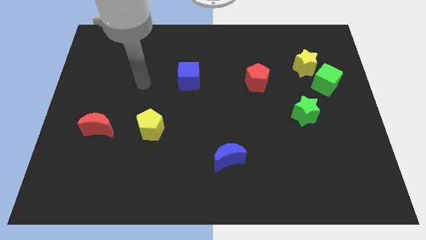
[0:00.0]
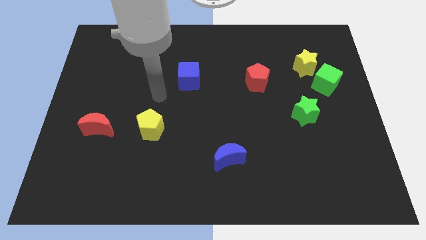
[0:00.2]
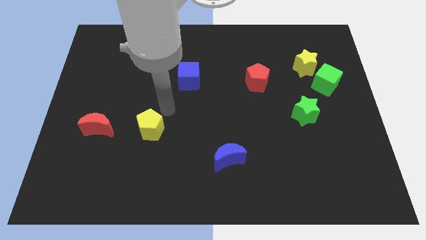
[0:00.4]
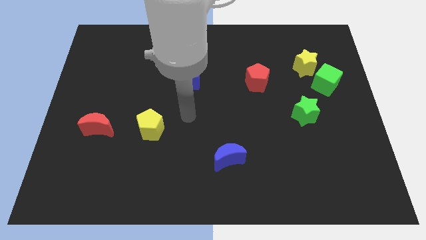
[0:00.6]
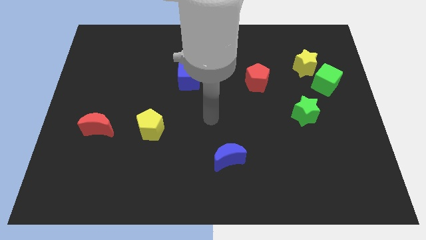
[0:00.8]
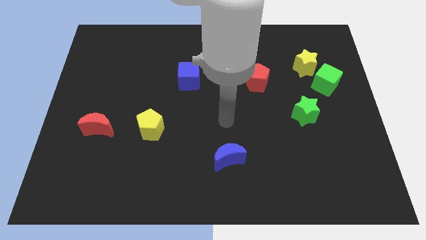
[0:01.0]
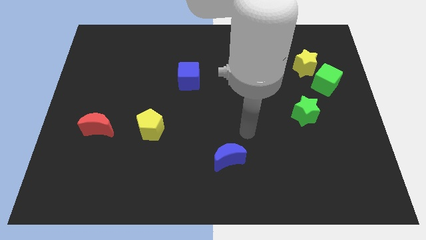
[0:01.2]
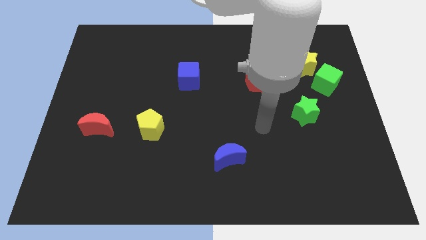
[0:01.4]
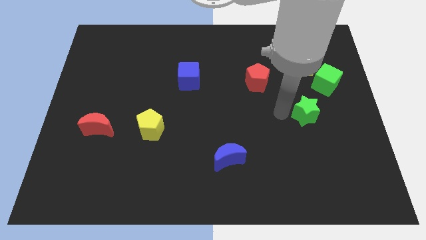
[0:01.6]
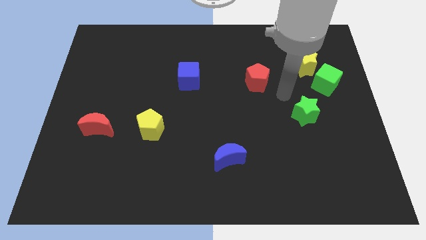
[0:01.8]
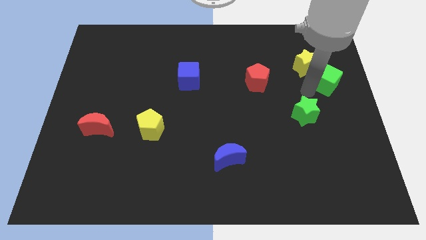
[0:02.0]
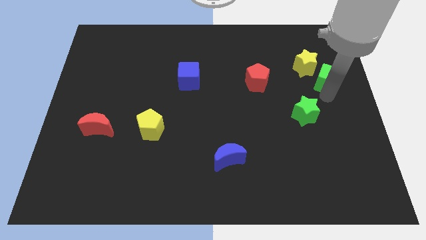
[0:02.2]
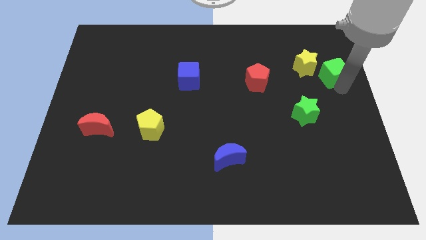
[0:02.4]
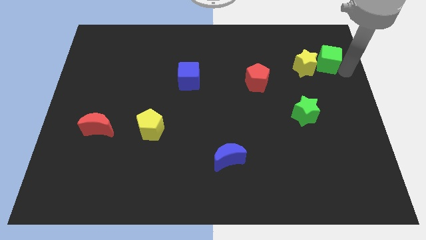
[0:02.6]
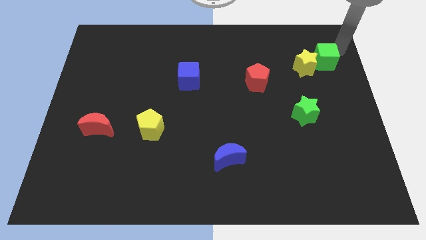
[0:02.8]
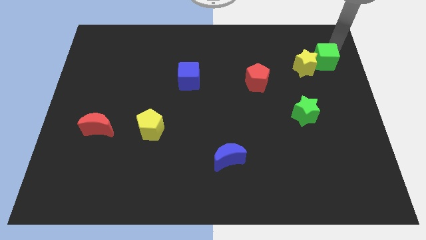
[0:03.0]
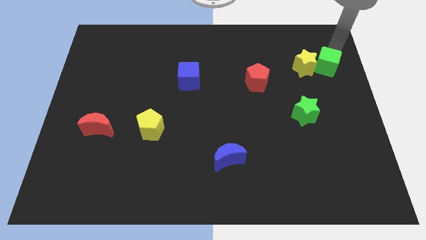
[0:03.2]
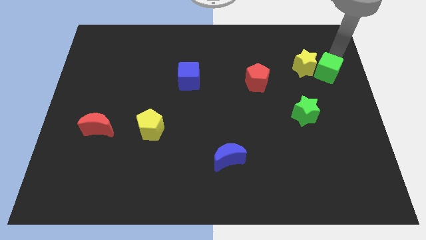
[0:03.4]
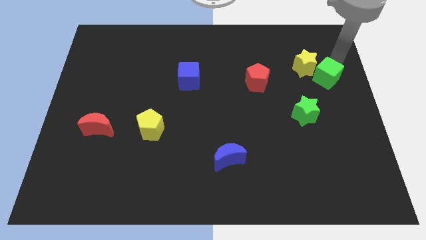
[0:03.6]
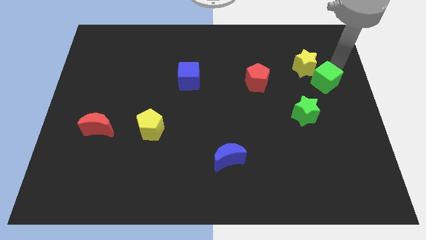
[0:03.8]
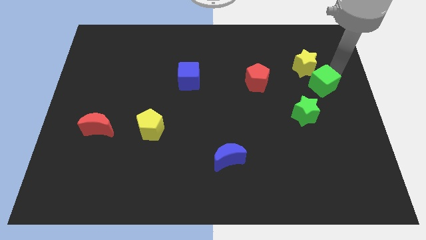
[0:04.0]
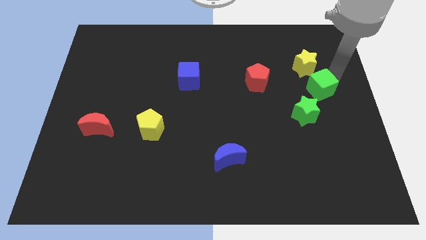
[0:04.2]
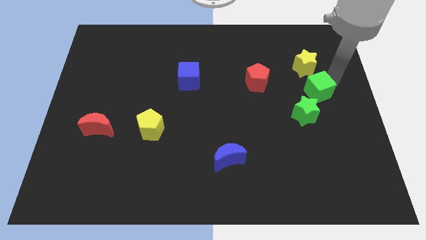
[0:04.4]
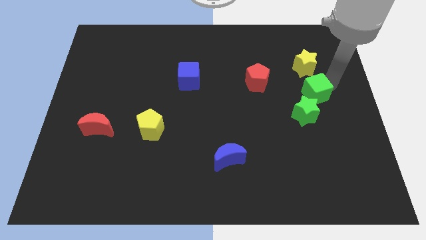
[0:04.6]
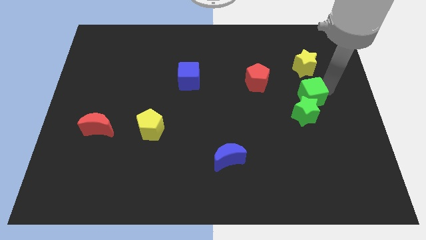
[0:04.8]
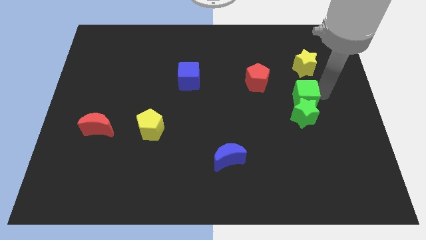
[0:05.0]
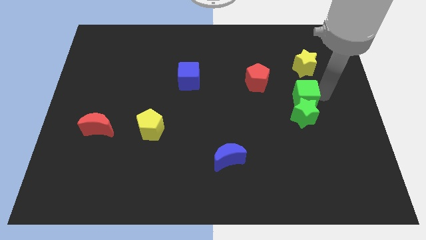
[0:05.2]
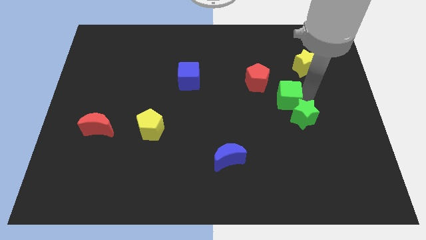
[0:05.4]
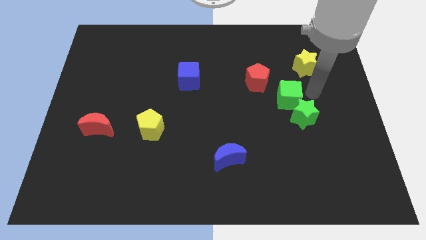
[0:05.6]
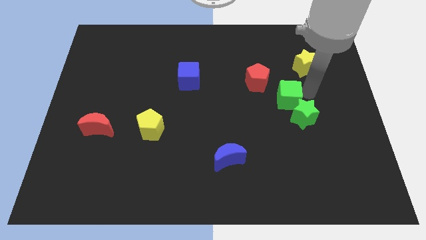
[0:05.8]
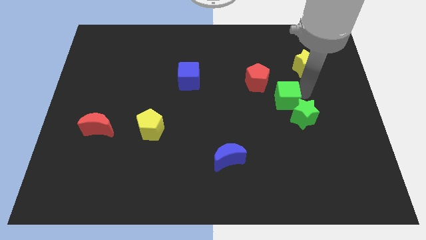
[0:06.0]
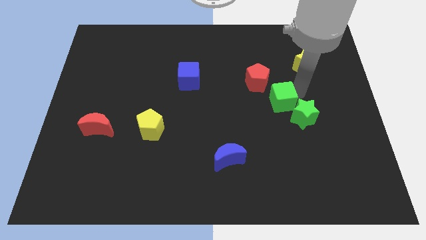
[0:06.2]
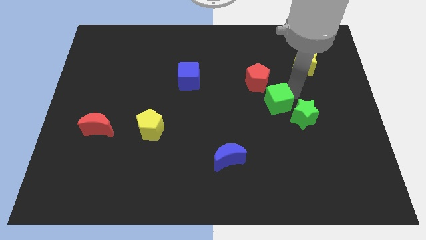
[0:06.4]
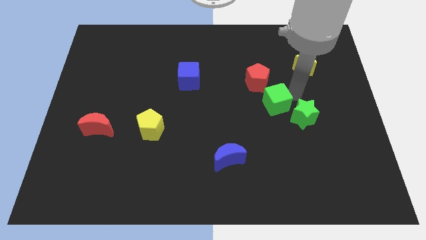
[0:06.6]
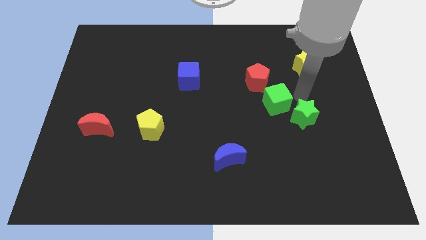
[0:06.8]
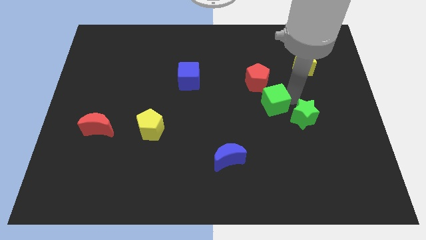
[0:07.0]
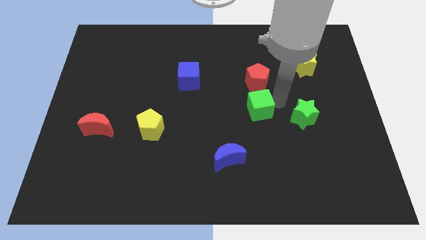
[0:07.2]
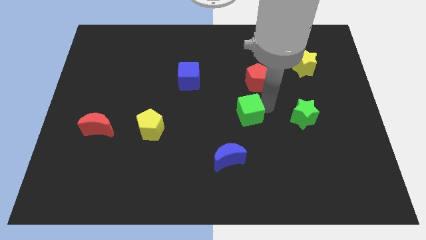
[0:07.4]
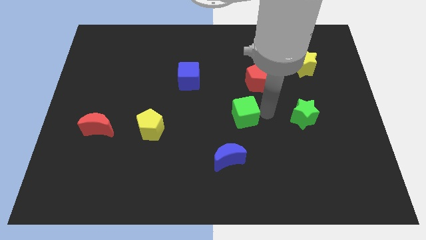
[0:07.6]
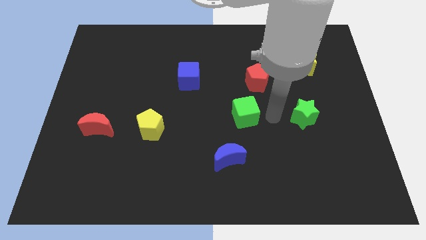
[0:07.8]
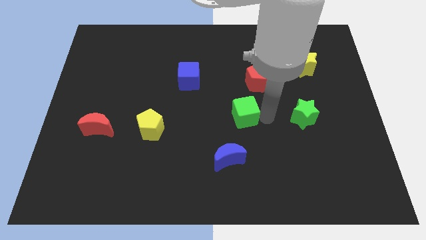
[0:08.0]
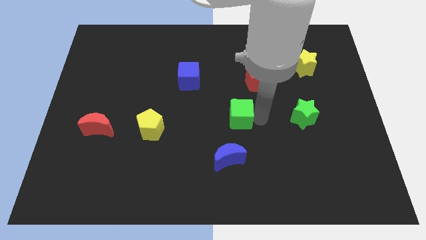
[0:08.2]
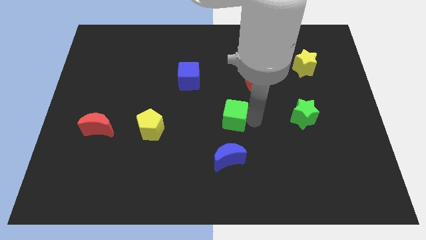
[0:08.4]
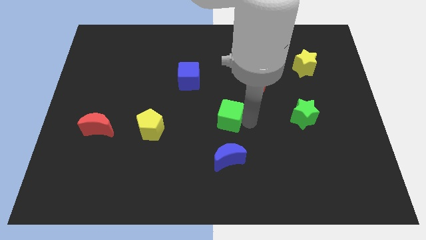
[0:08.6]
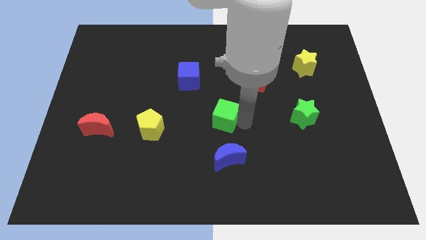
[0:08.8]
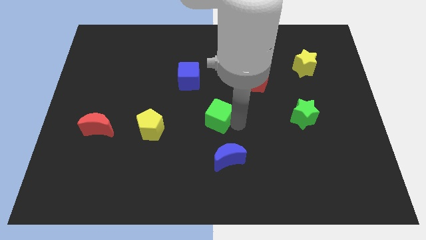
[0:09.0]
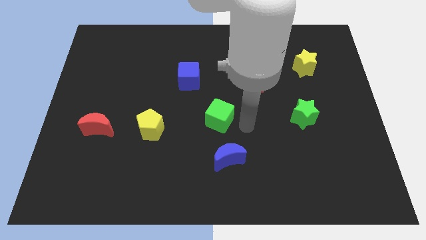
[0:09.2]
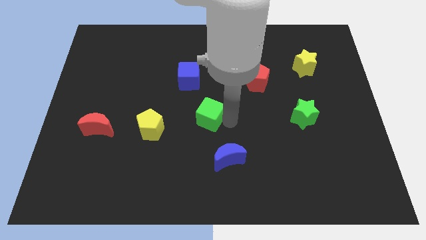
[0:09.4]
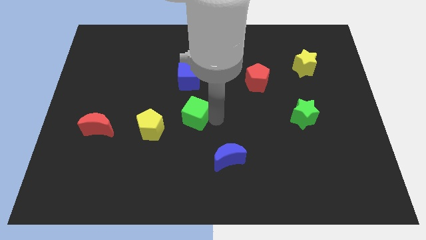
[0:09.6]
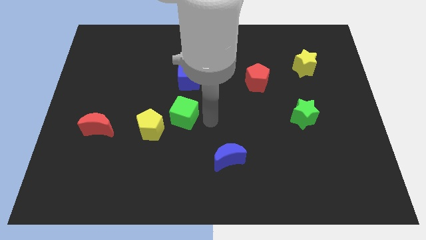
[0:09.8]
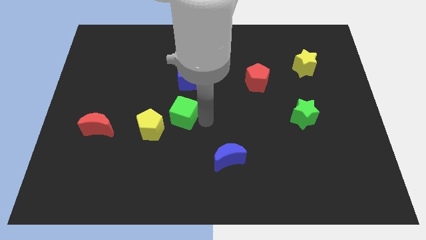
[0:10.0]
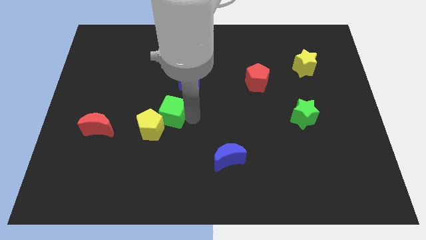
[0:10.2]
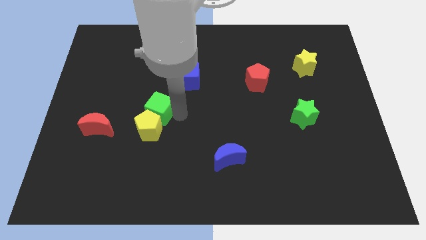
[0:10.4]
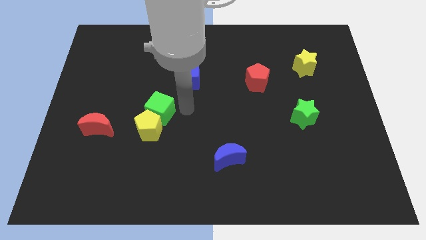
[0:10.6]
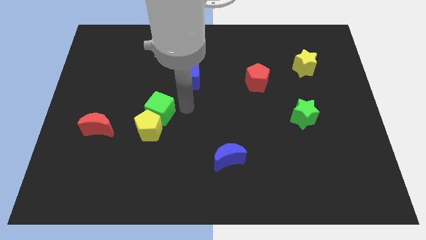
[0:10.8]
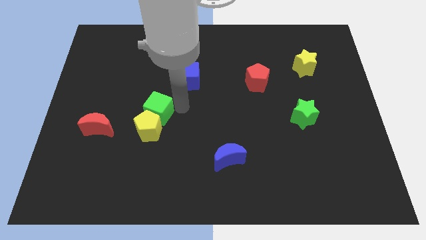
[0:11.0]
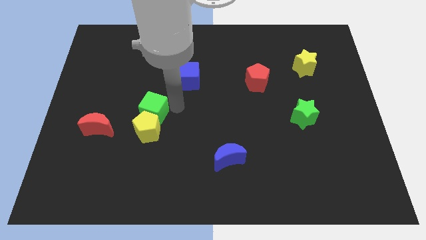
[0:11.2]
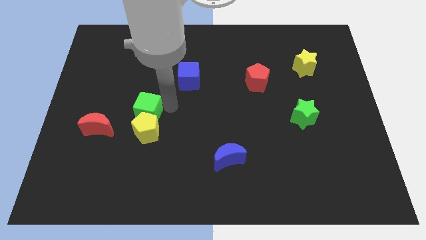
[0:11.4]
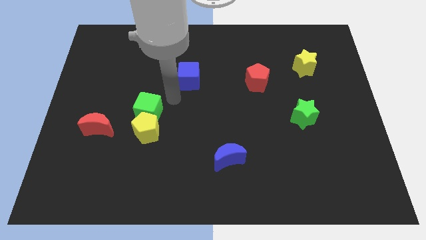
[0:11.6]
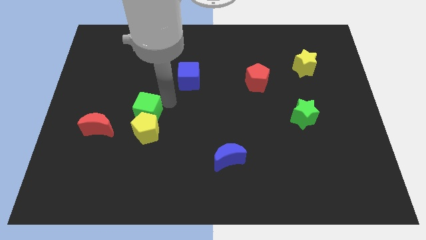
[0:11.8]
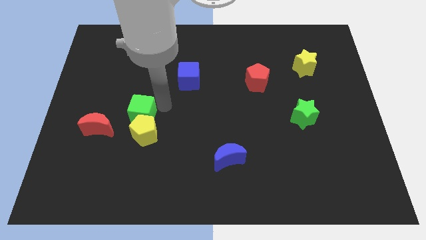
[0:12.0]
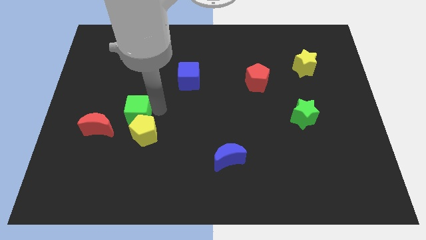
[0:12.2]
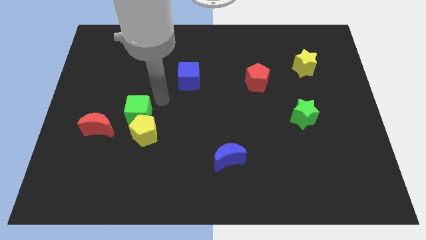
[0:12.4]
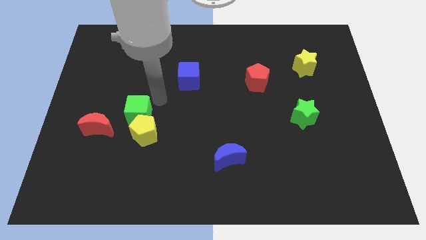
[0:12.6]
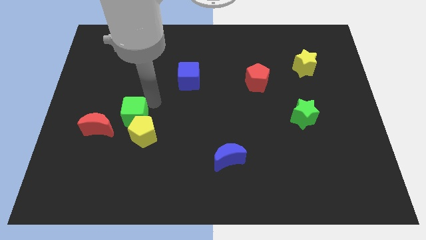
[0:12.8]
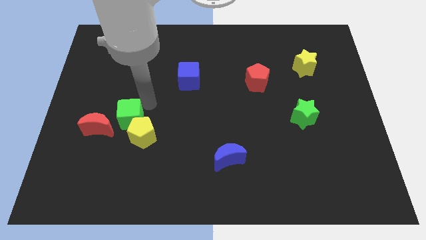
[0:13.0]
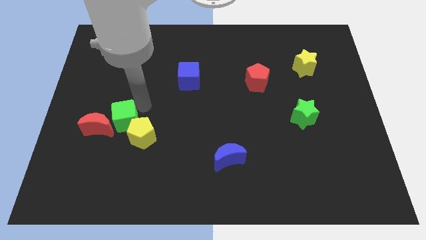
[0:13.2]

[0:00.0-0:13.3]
slide the green cube close to the red moon
